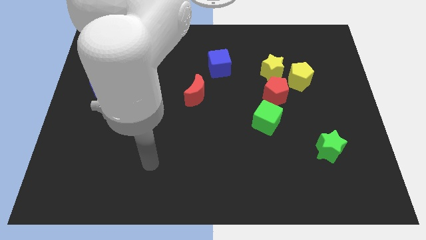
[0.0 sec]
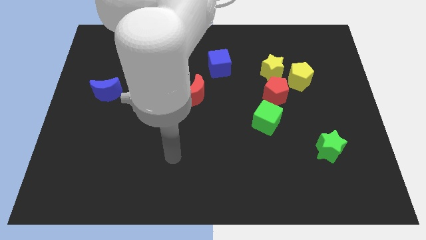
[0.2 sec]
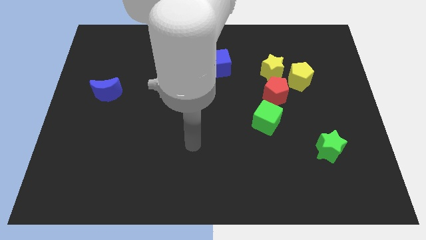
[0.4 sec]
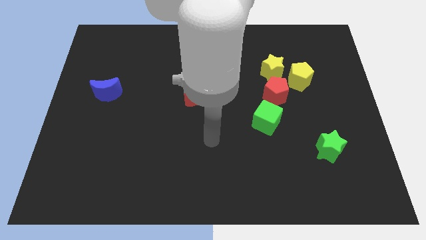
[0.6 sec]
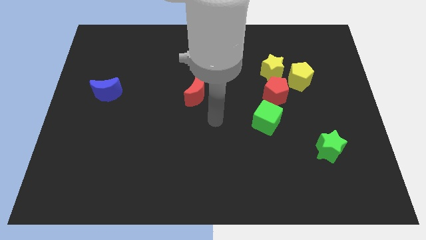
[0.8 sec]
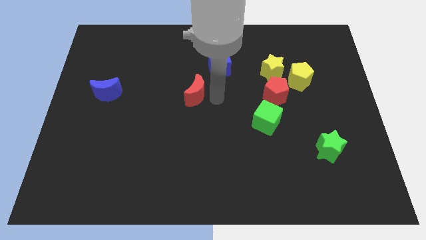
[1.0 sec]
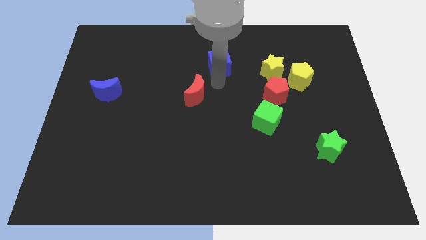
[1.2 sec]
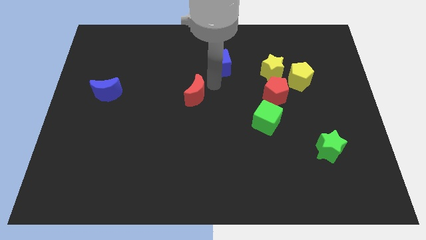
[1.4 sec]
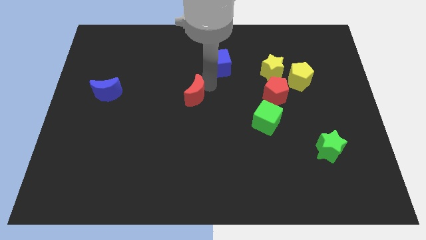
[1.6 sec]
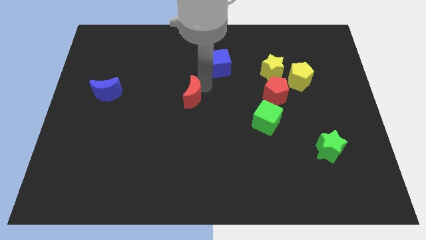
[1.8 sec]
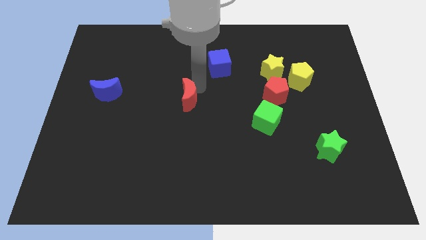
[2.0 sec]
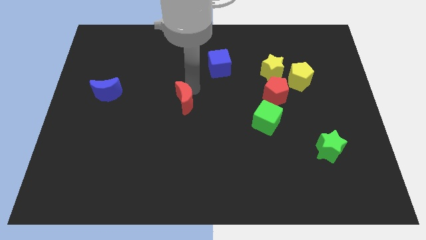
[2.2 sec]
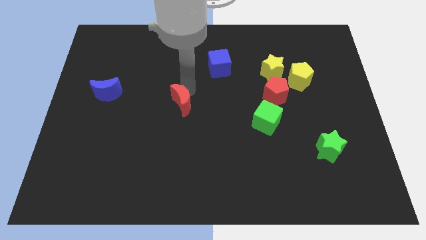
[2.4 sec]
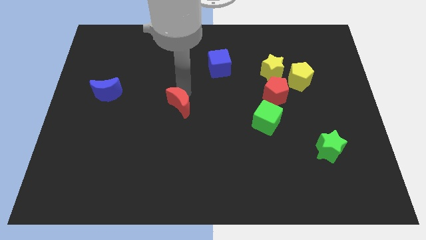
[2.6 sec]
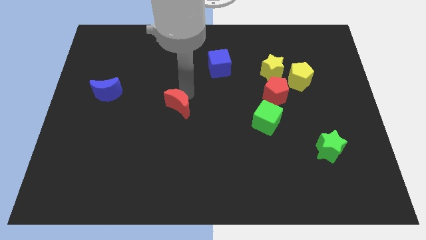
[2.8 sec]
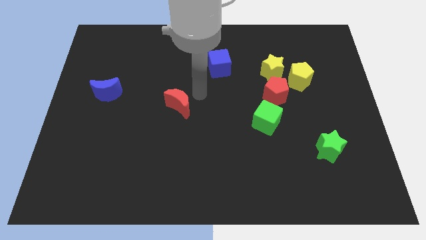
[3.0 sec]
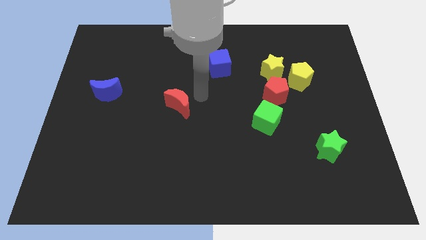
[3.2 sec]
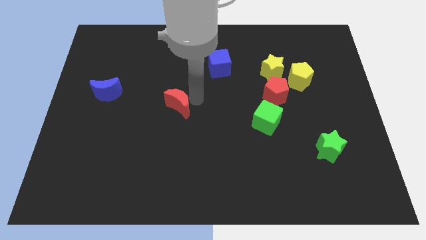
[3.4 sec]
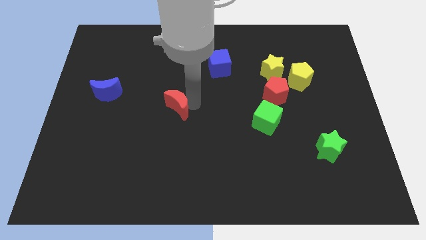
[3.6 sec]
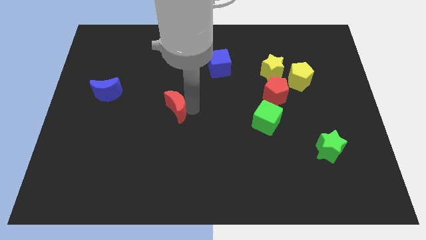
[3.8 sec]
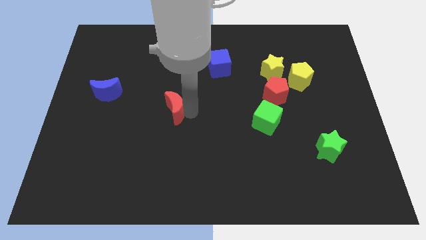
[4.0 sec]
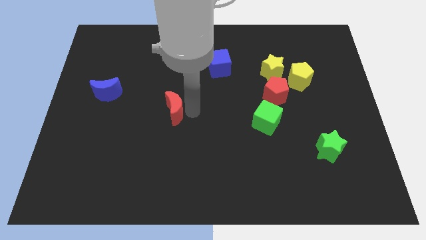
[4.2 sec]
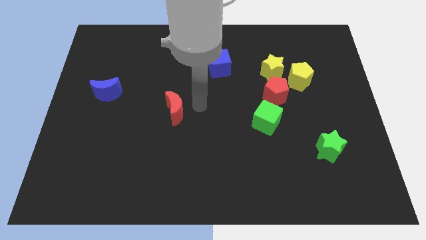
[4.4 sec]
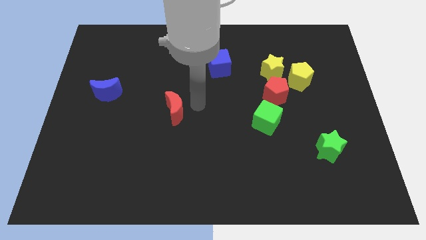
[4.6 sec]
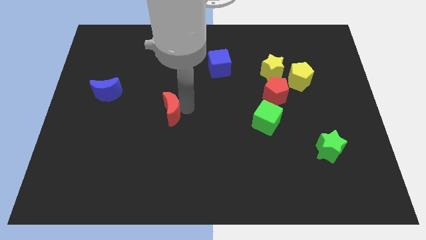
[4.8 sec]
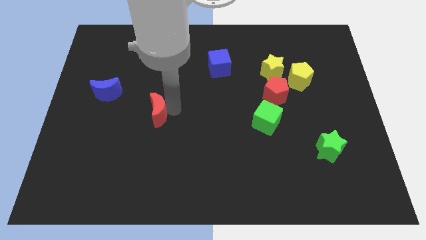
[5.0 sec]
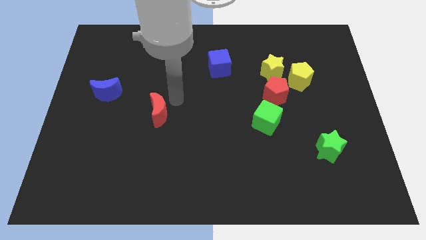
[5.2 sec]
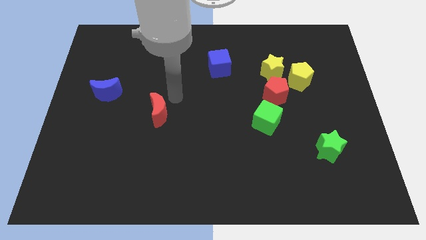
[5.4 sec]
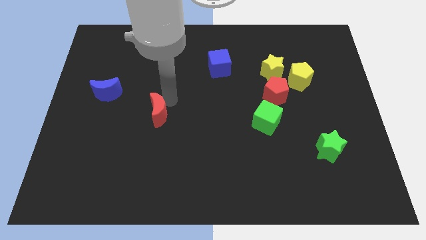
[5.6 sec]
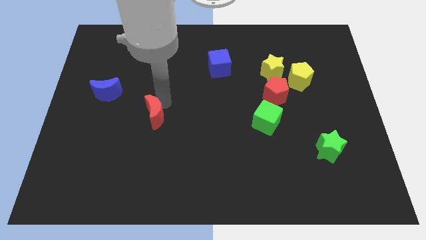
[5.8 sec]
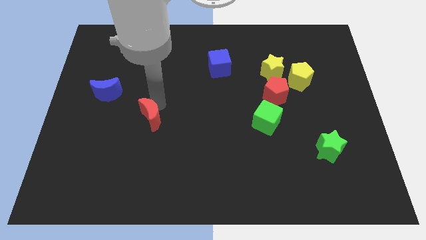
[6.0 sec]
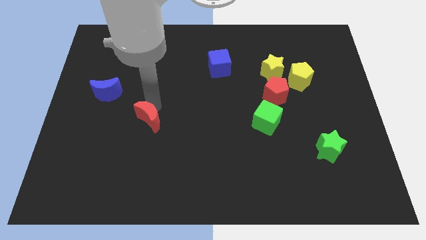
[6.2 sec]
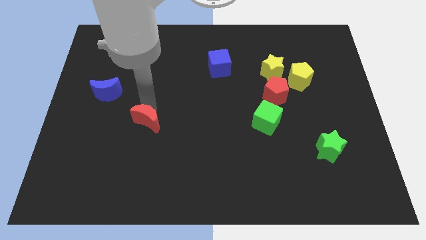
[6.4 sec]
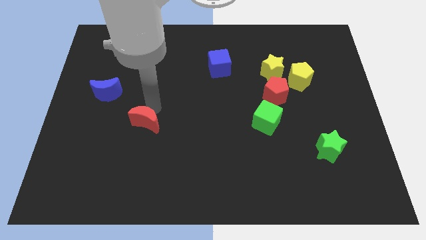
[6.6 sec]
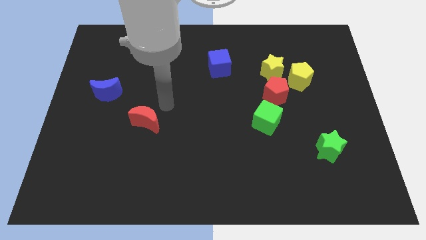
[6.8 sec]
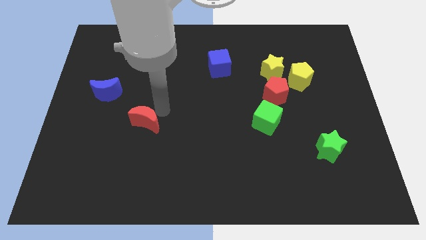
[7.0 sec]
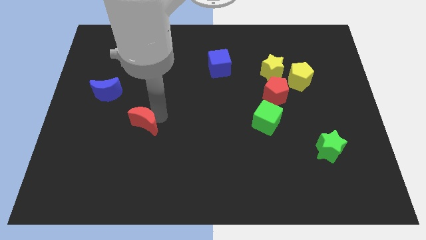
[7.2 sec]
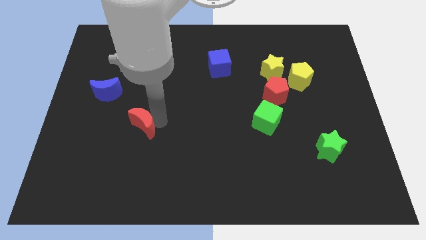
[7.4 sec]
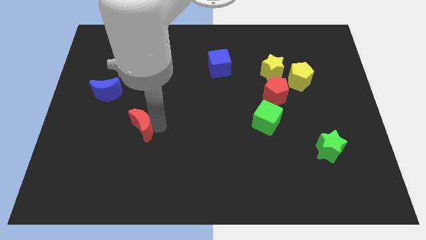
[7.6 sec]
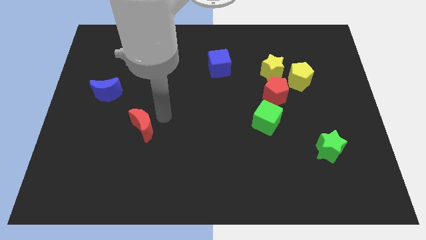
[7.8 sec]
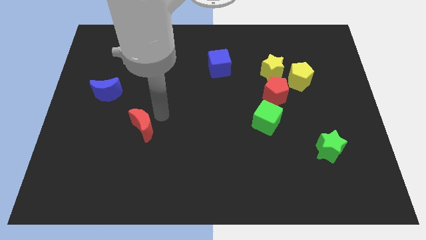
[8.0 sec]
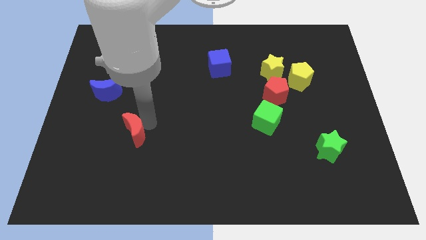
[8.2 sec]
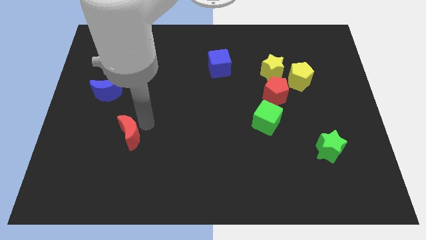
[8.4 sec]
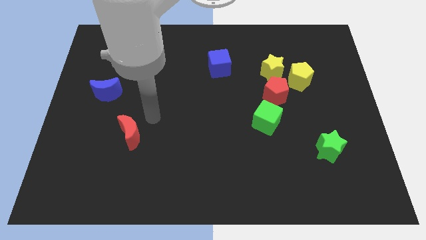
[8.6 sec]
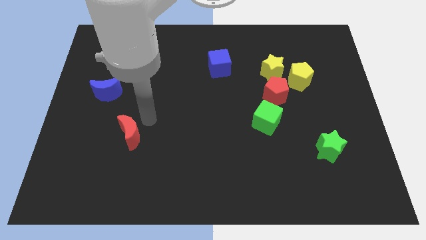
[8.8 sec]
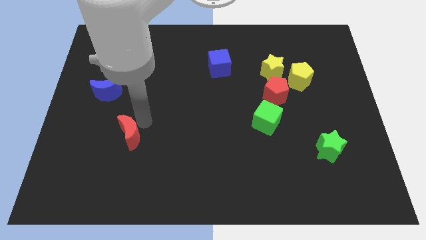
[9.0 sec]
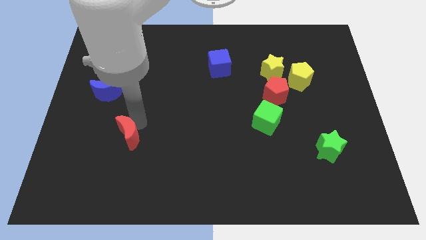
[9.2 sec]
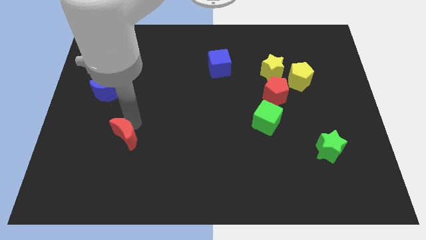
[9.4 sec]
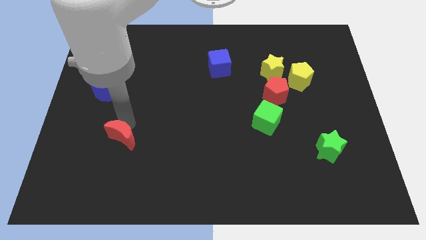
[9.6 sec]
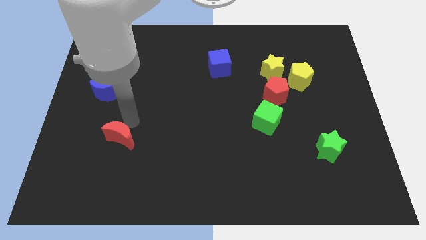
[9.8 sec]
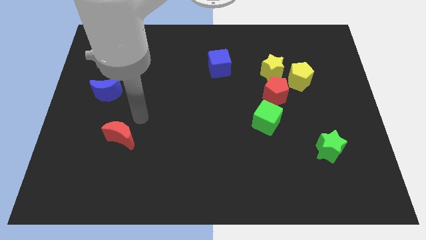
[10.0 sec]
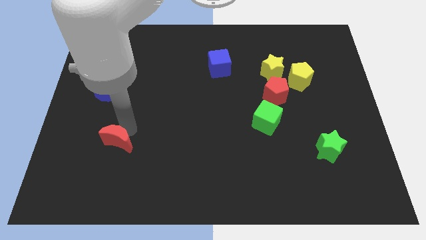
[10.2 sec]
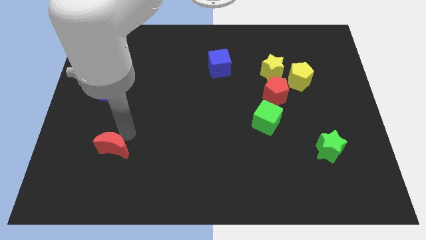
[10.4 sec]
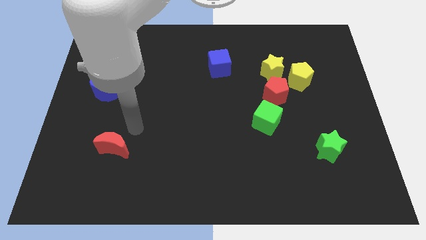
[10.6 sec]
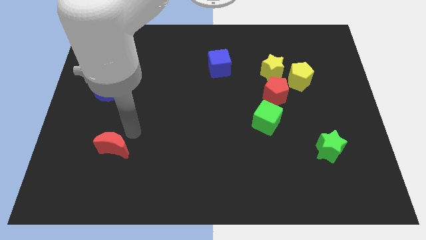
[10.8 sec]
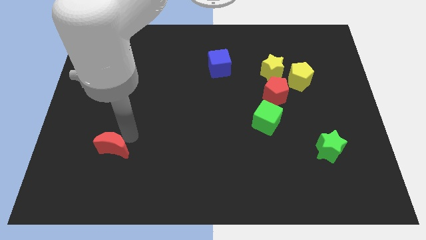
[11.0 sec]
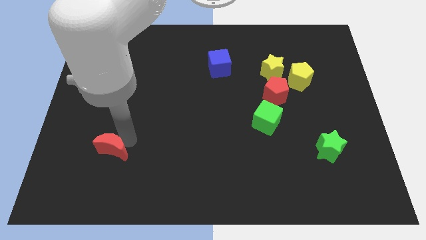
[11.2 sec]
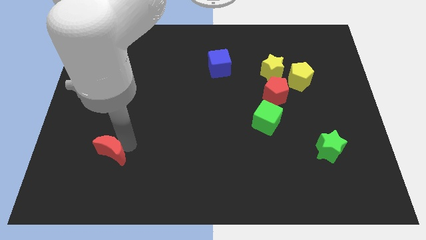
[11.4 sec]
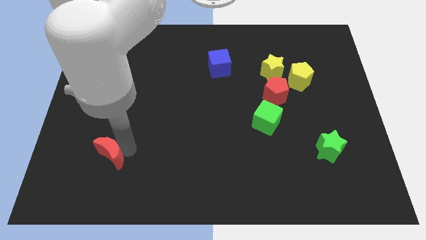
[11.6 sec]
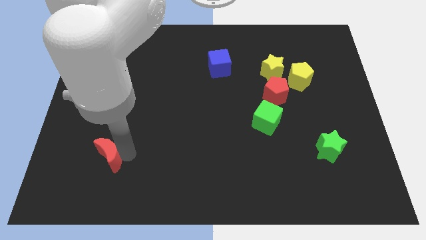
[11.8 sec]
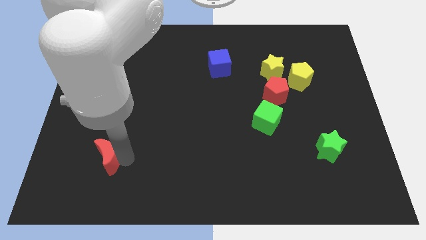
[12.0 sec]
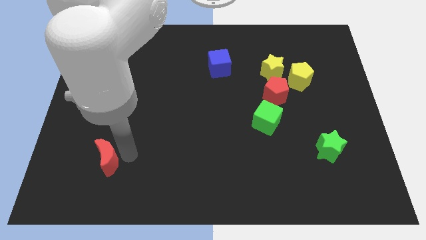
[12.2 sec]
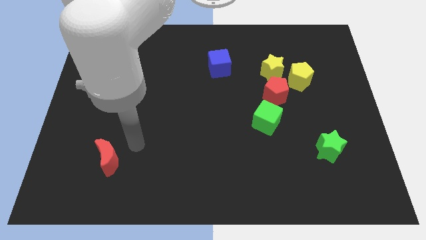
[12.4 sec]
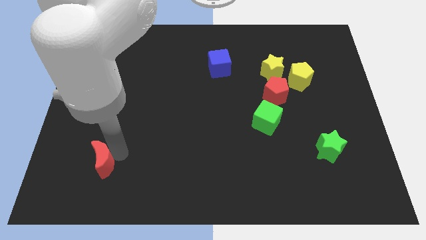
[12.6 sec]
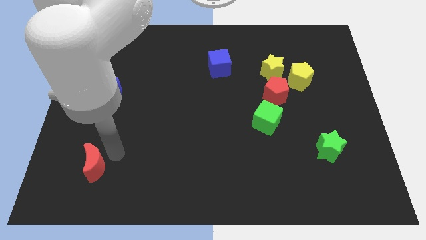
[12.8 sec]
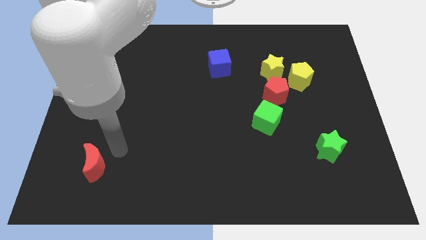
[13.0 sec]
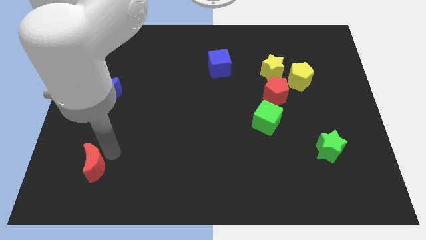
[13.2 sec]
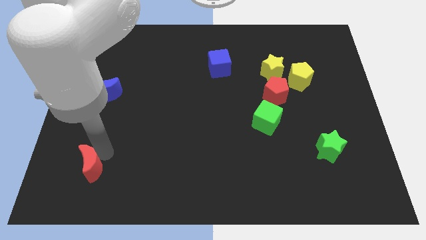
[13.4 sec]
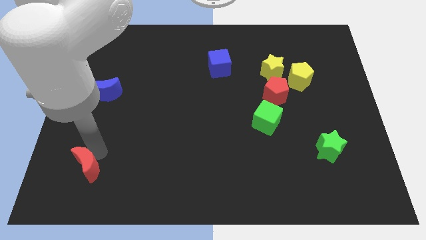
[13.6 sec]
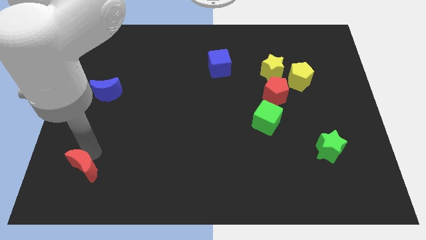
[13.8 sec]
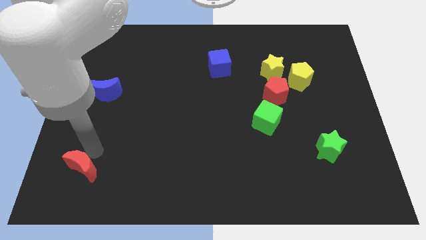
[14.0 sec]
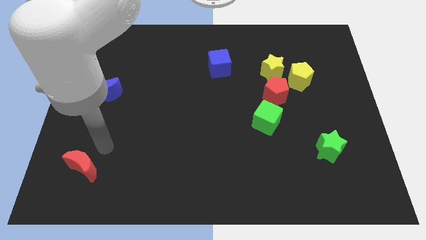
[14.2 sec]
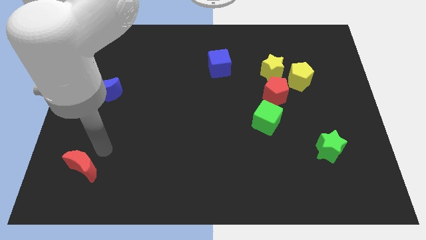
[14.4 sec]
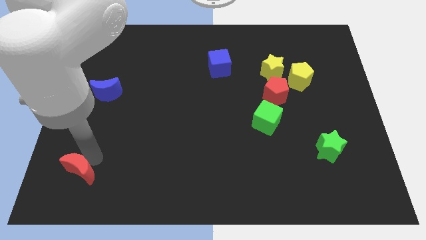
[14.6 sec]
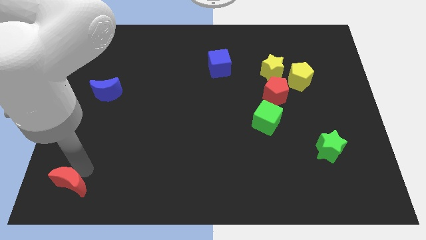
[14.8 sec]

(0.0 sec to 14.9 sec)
put the red moon to the lower left corner
